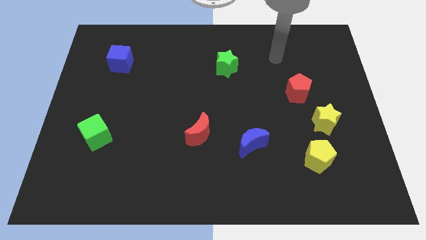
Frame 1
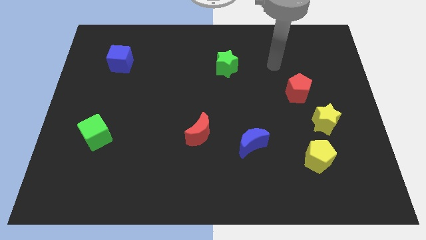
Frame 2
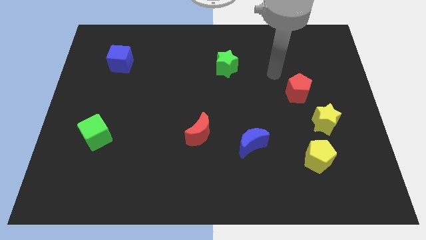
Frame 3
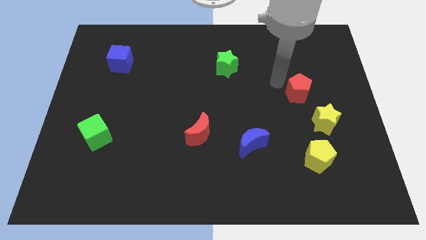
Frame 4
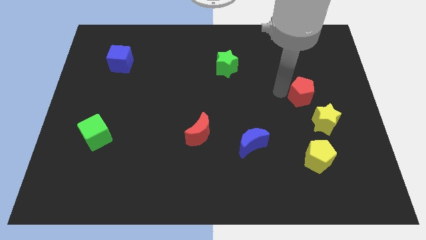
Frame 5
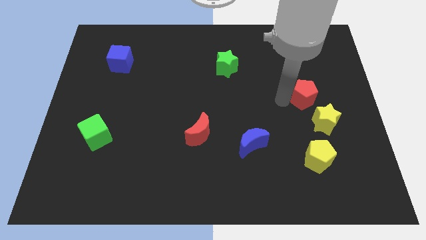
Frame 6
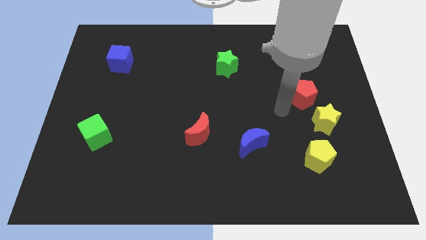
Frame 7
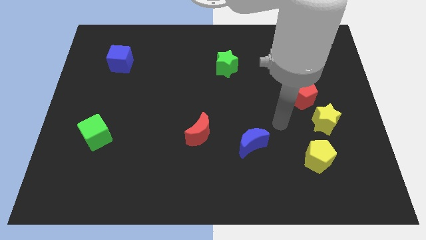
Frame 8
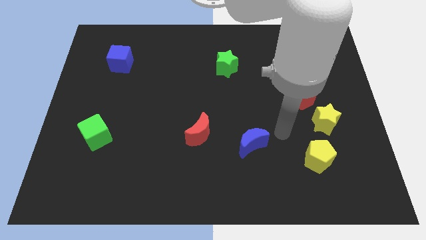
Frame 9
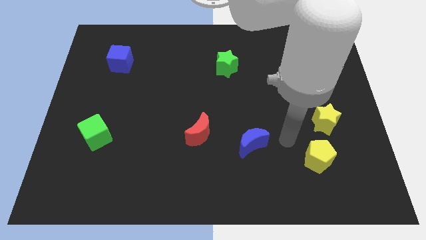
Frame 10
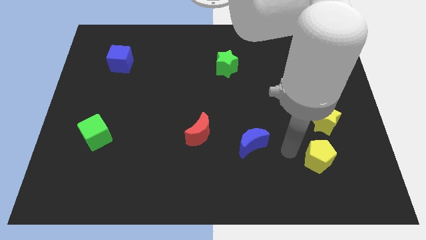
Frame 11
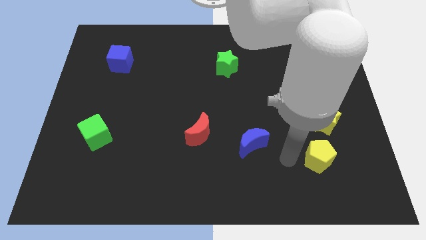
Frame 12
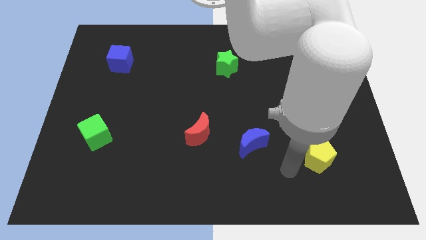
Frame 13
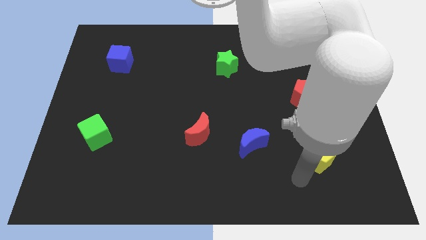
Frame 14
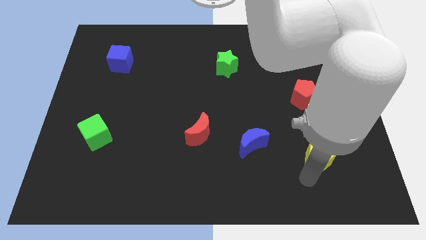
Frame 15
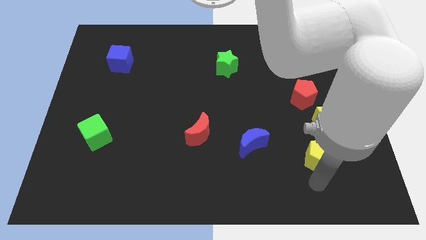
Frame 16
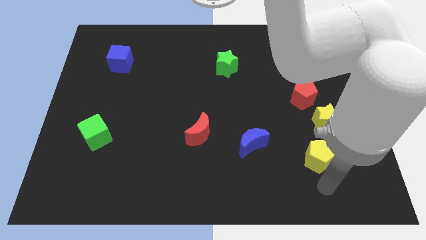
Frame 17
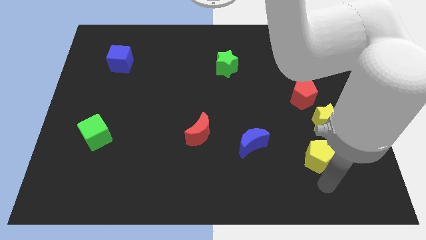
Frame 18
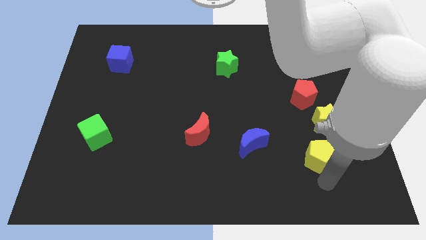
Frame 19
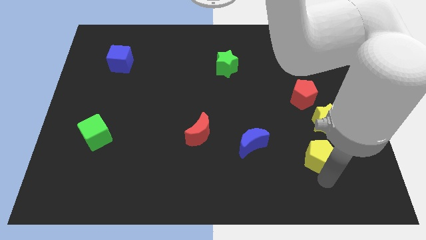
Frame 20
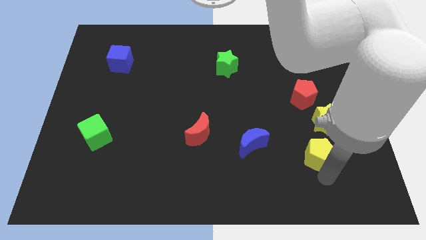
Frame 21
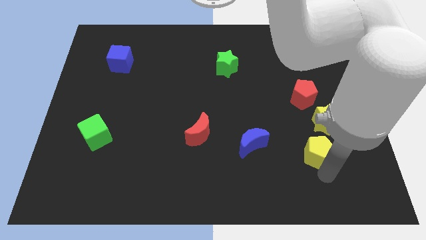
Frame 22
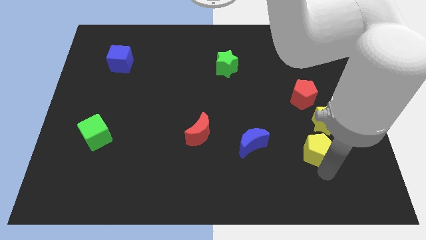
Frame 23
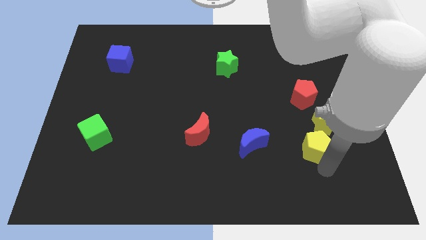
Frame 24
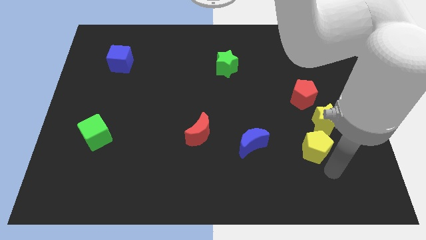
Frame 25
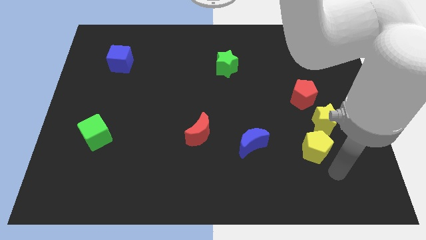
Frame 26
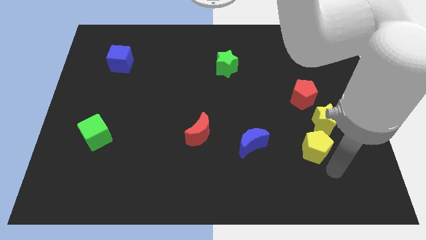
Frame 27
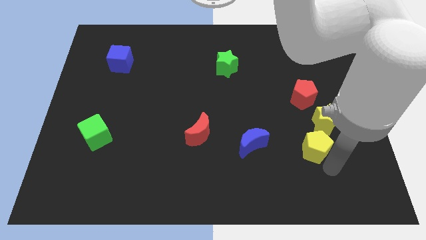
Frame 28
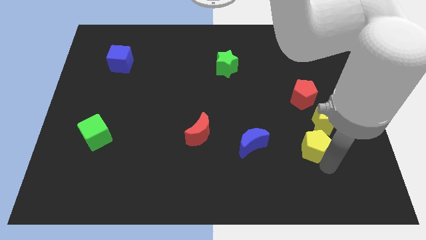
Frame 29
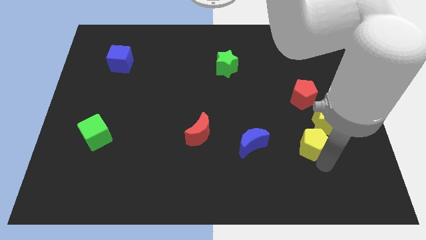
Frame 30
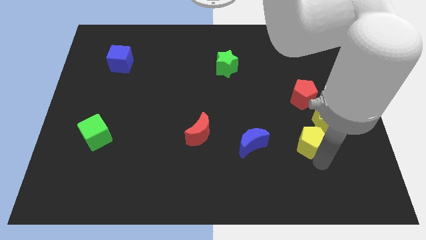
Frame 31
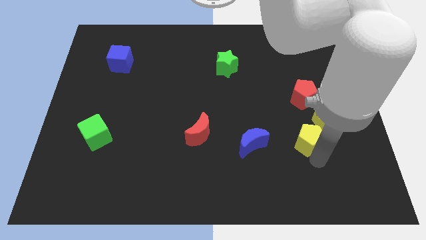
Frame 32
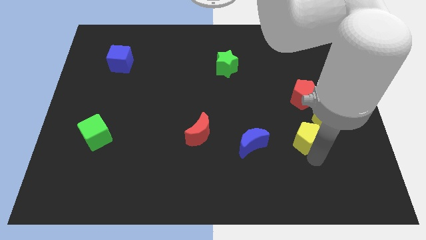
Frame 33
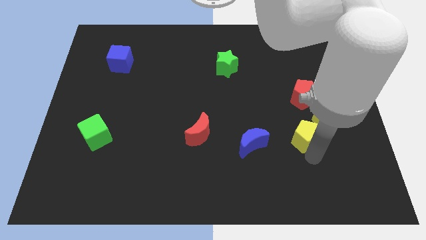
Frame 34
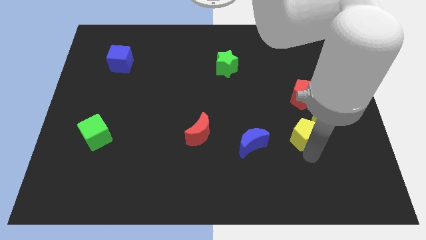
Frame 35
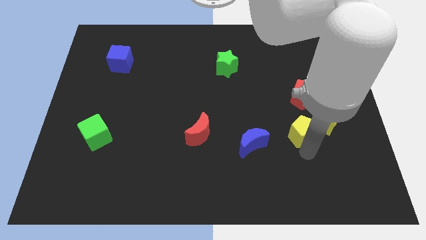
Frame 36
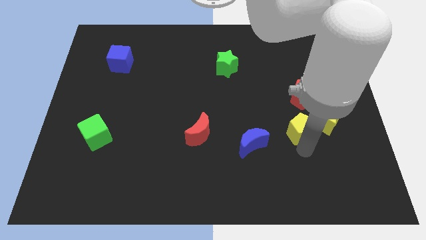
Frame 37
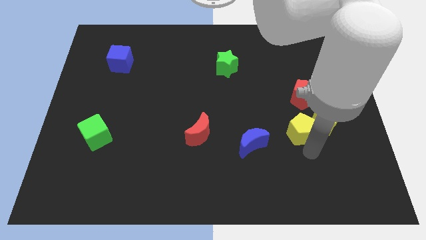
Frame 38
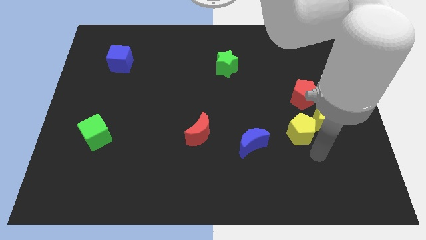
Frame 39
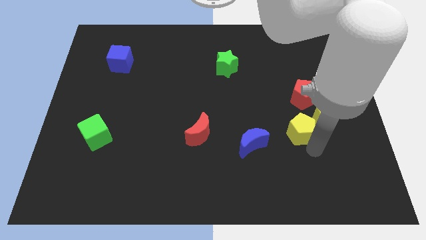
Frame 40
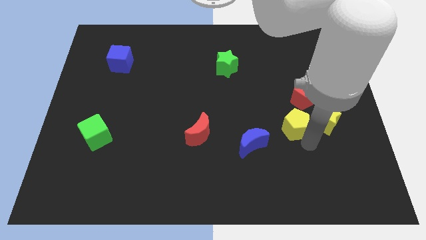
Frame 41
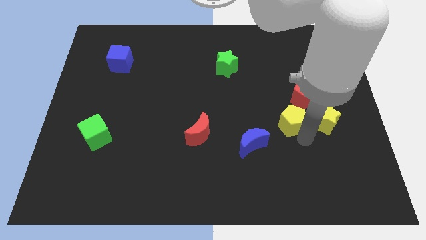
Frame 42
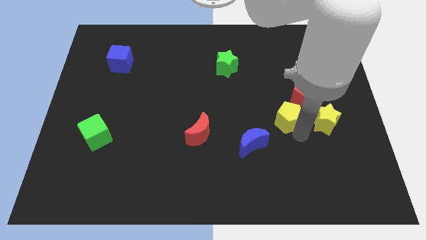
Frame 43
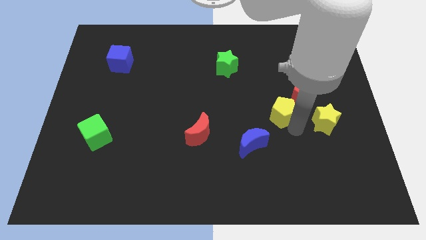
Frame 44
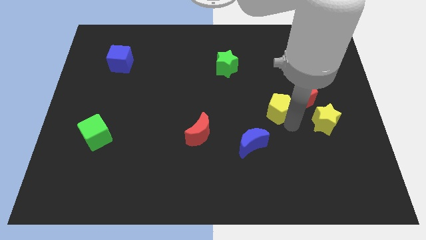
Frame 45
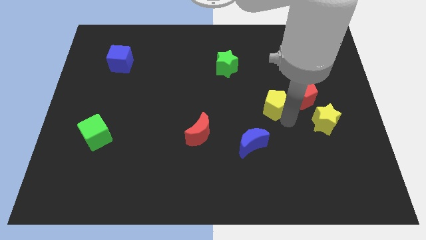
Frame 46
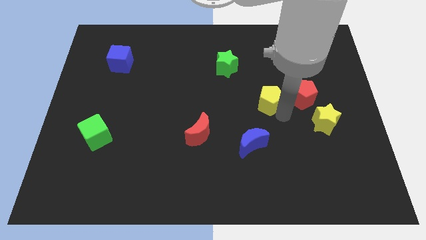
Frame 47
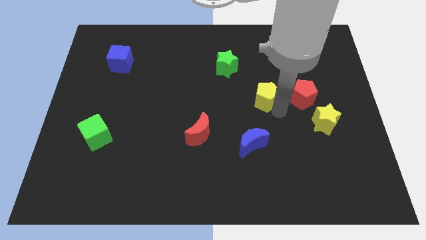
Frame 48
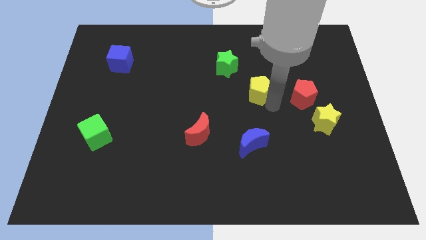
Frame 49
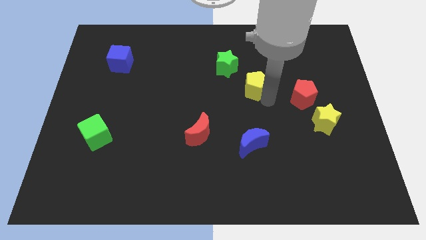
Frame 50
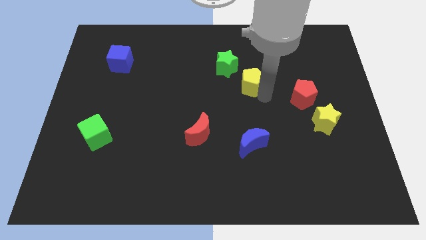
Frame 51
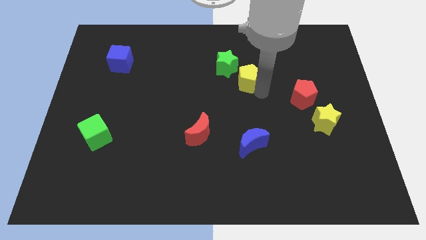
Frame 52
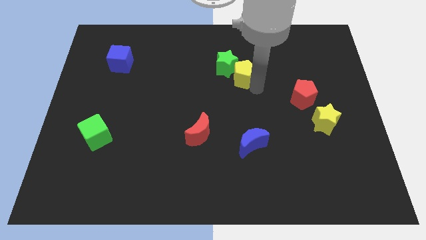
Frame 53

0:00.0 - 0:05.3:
slide the yellow pentagon to the green star

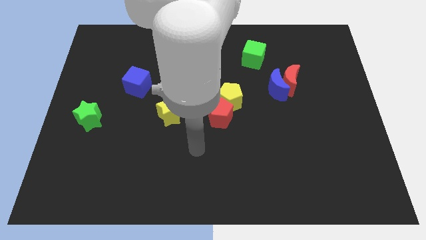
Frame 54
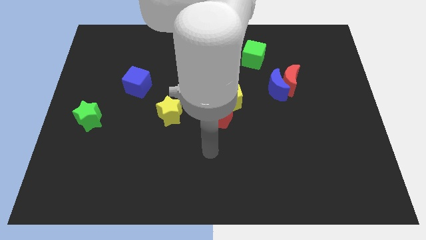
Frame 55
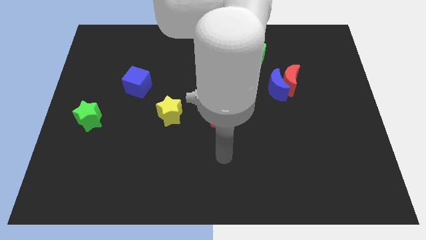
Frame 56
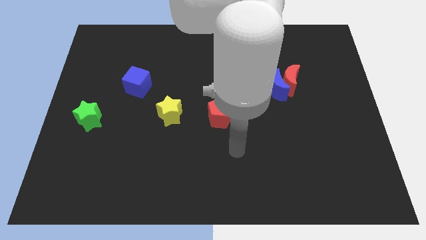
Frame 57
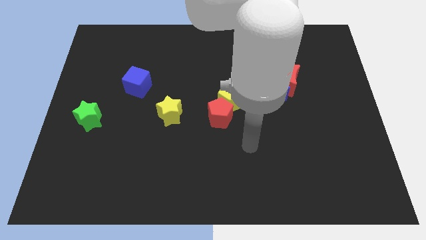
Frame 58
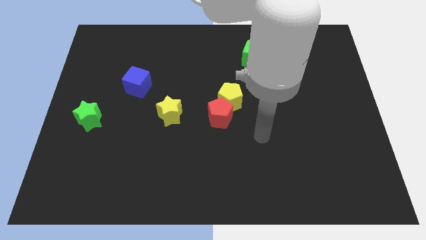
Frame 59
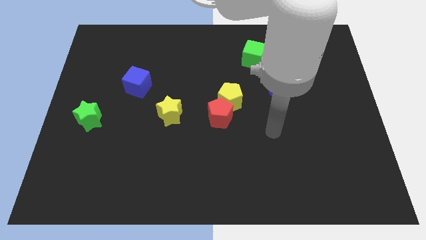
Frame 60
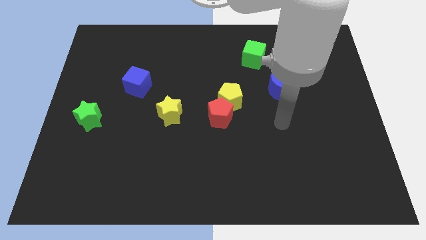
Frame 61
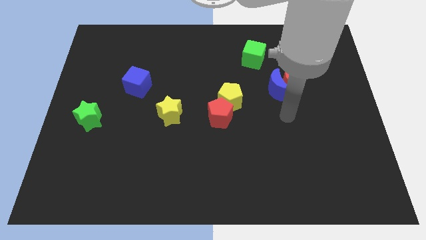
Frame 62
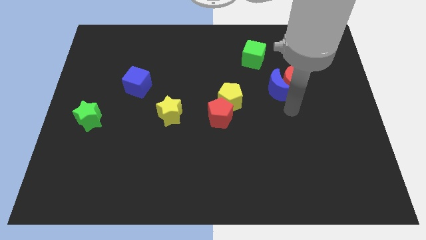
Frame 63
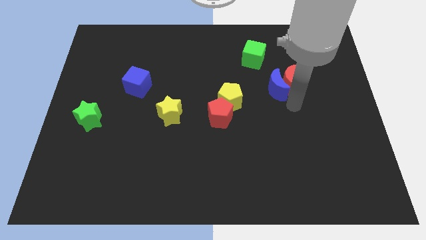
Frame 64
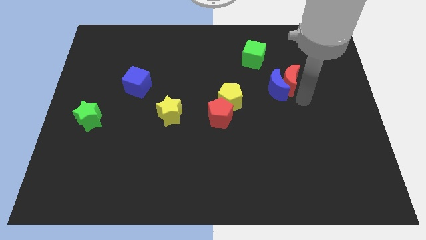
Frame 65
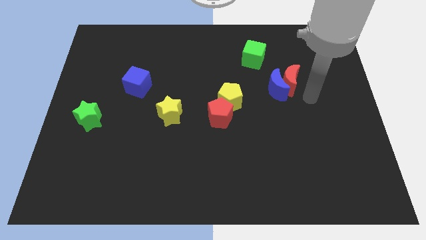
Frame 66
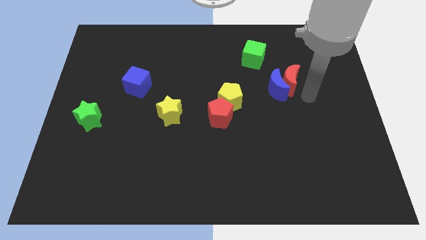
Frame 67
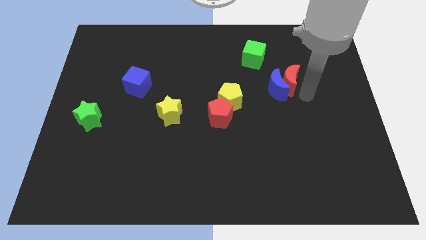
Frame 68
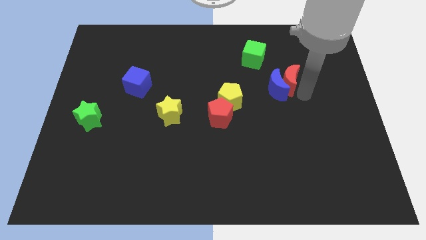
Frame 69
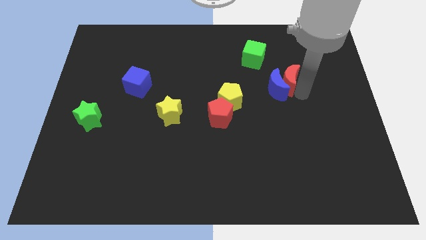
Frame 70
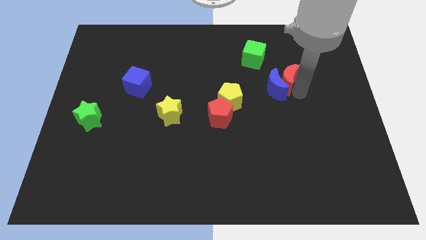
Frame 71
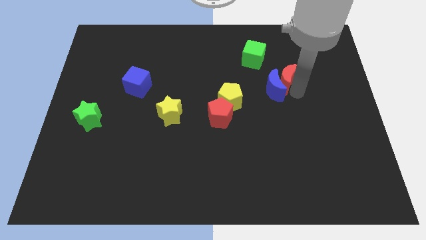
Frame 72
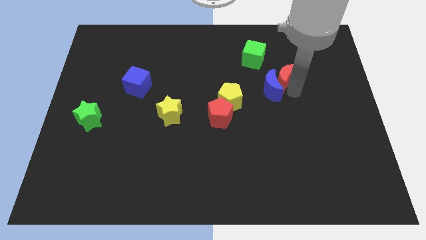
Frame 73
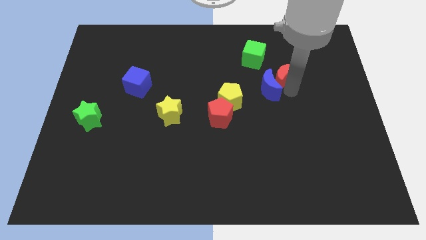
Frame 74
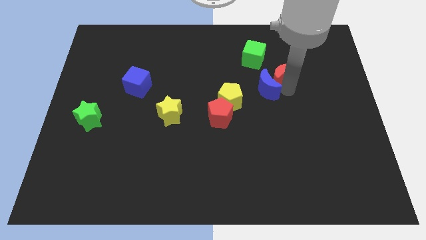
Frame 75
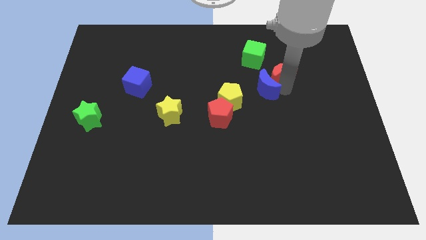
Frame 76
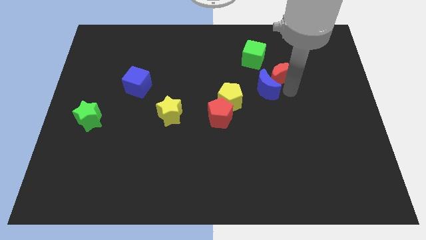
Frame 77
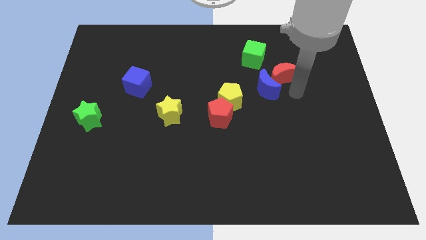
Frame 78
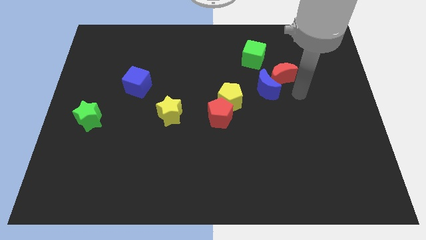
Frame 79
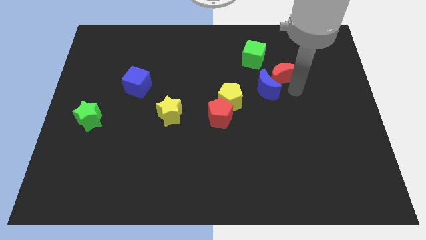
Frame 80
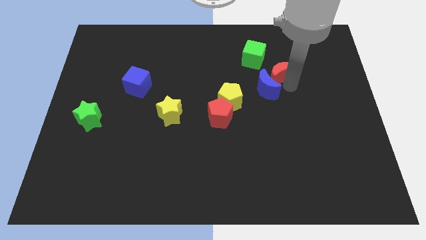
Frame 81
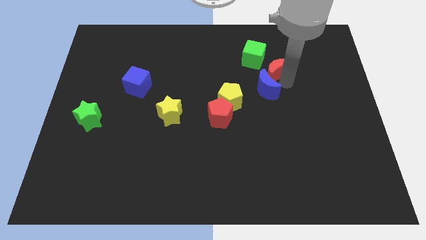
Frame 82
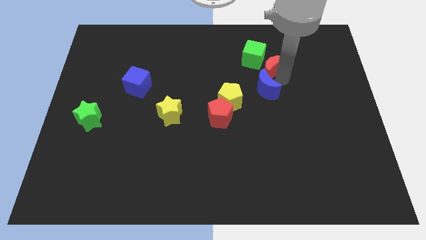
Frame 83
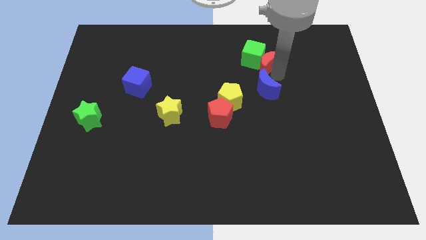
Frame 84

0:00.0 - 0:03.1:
move the red moon towards the green cube
